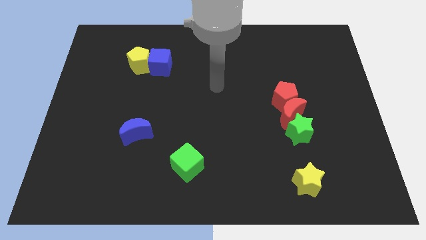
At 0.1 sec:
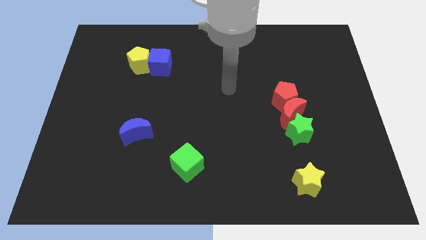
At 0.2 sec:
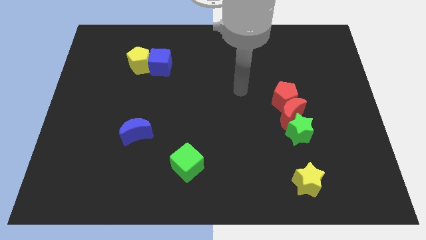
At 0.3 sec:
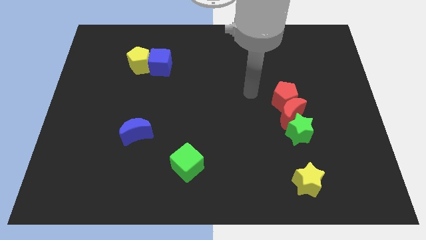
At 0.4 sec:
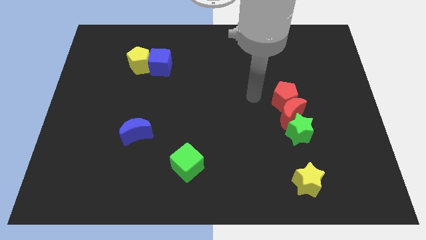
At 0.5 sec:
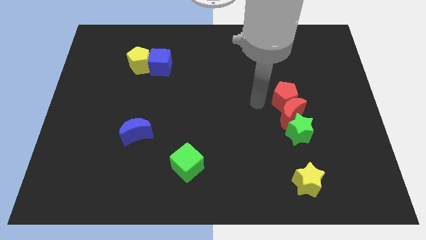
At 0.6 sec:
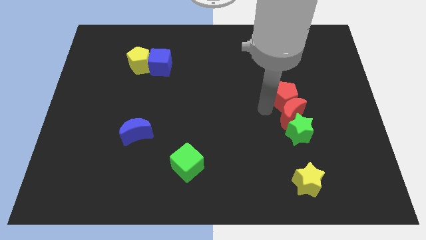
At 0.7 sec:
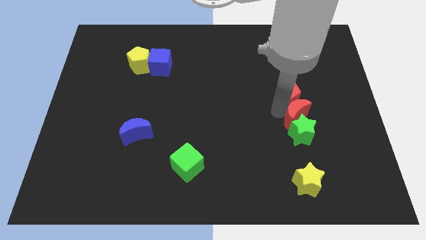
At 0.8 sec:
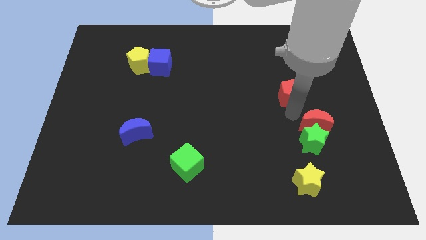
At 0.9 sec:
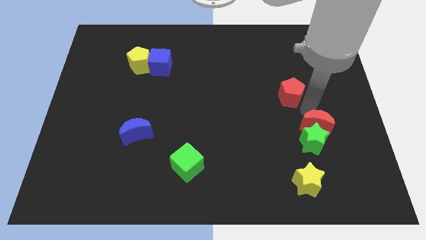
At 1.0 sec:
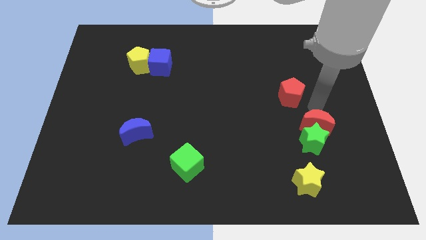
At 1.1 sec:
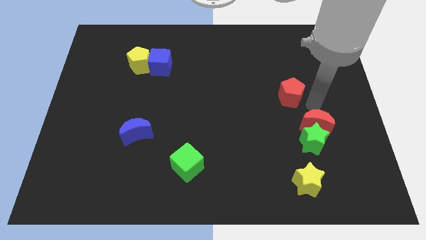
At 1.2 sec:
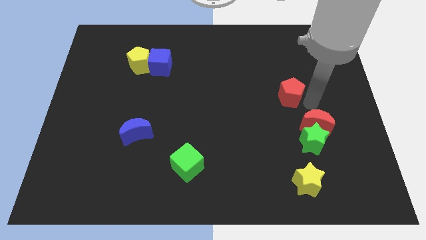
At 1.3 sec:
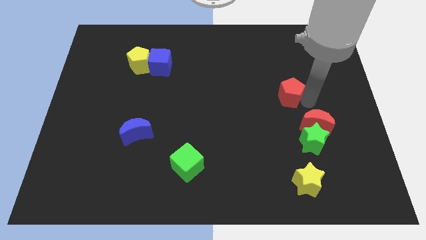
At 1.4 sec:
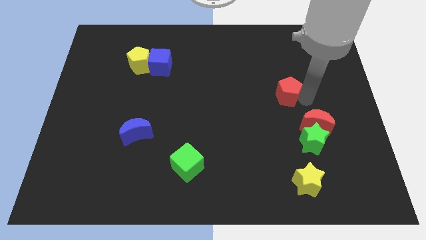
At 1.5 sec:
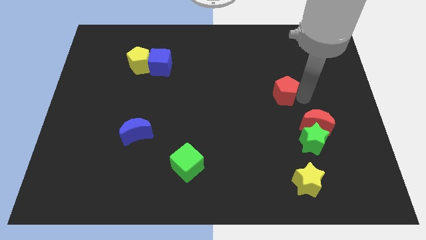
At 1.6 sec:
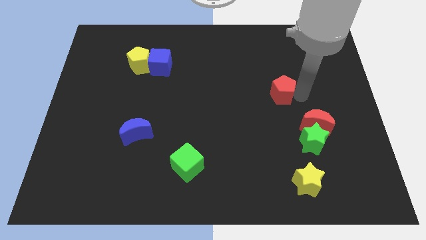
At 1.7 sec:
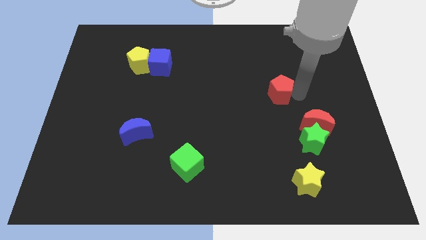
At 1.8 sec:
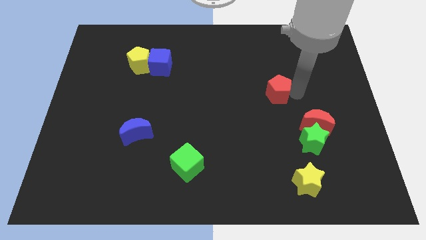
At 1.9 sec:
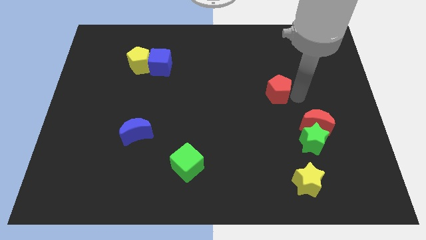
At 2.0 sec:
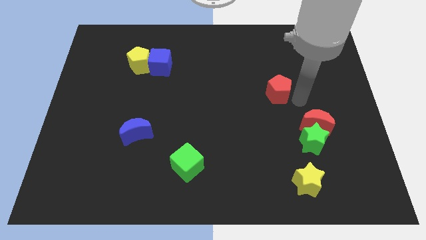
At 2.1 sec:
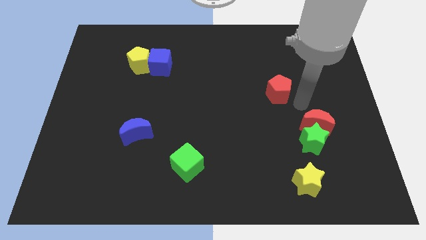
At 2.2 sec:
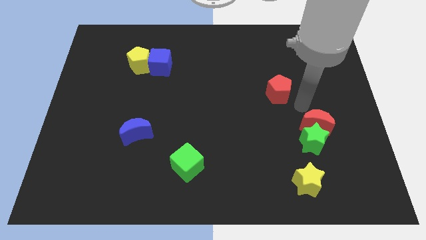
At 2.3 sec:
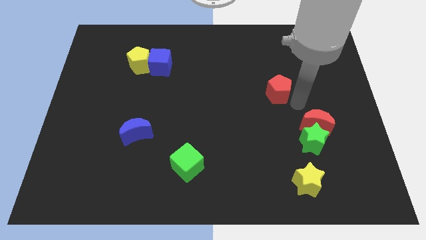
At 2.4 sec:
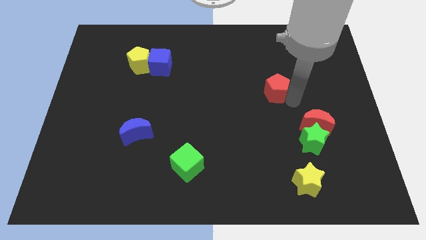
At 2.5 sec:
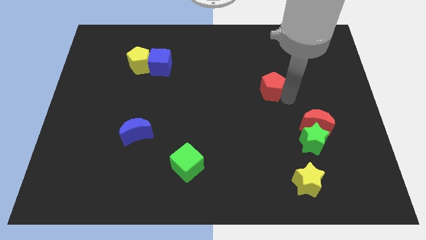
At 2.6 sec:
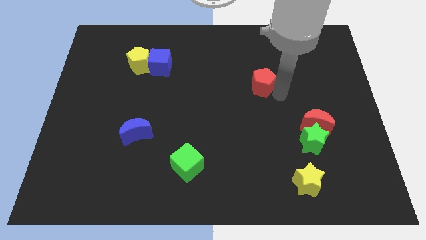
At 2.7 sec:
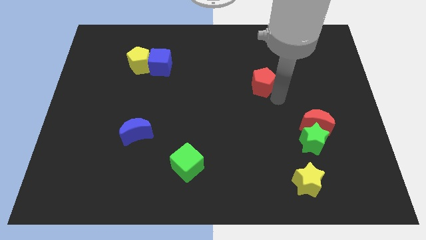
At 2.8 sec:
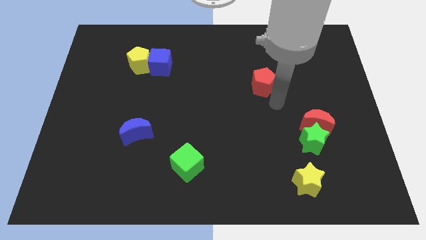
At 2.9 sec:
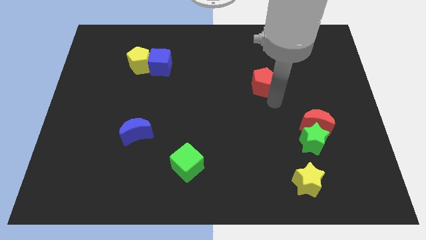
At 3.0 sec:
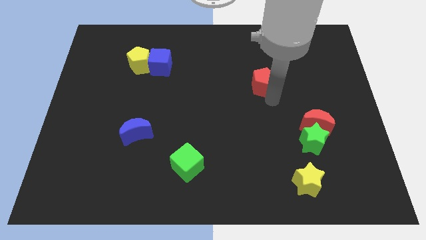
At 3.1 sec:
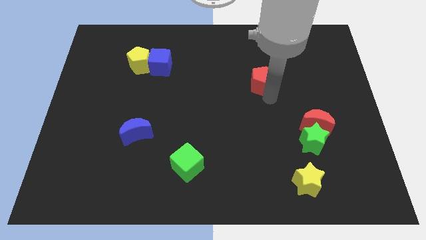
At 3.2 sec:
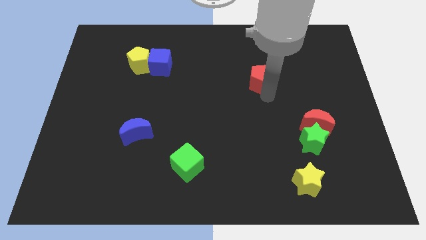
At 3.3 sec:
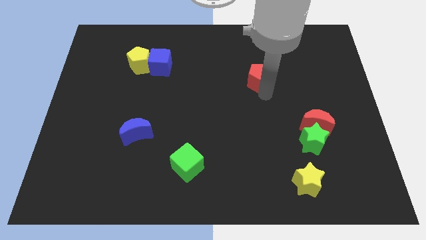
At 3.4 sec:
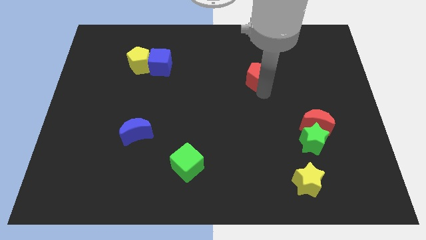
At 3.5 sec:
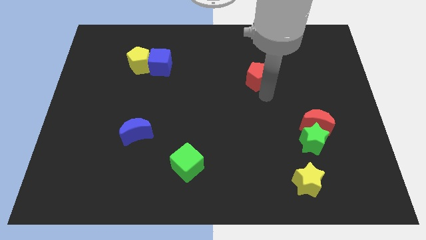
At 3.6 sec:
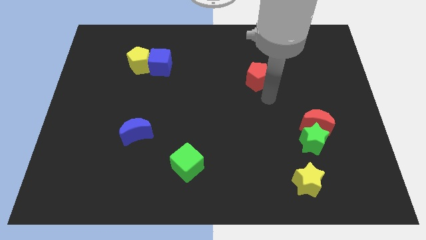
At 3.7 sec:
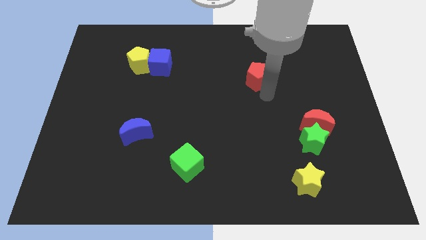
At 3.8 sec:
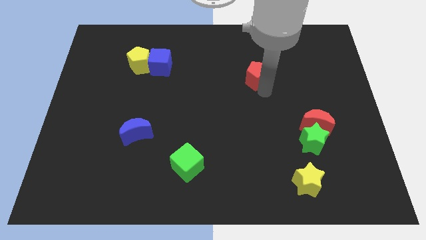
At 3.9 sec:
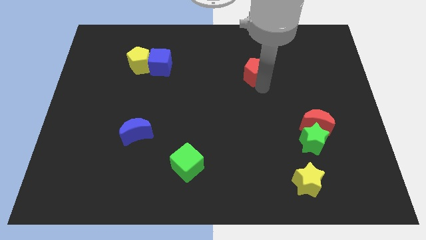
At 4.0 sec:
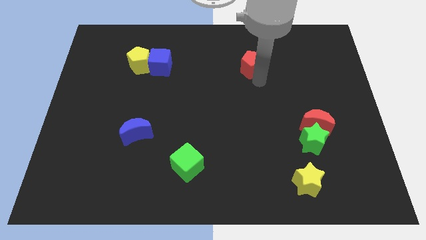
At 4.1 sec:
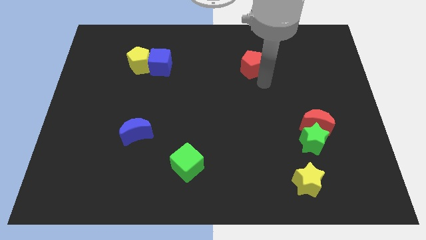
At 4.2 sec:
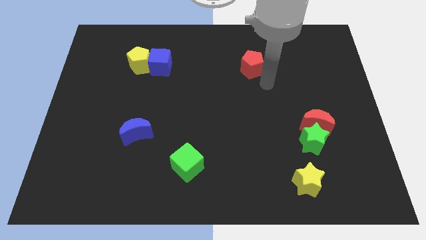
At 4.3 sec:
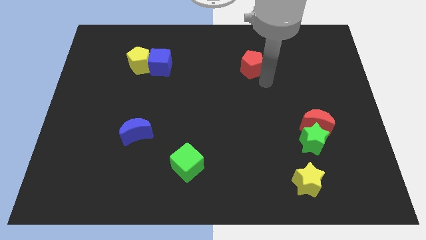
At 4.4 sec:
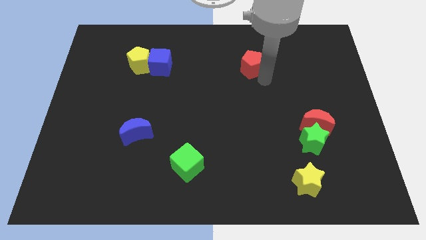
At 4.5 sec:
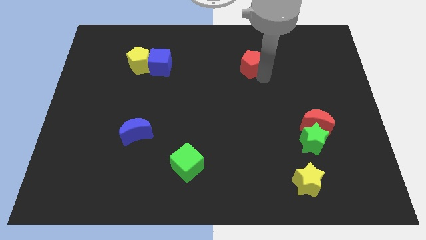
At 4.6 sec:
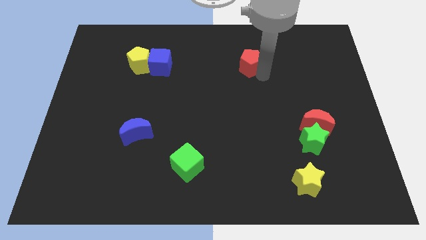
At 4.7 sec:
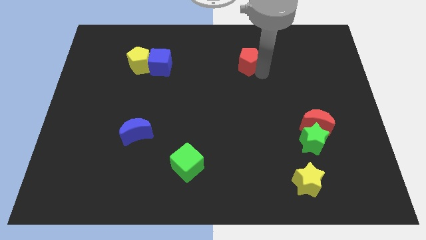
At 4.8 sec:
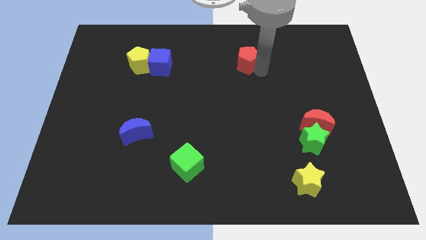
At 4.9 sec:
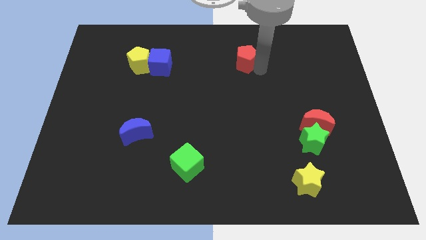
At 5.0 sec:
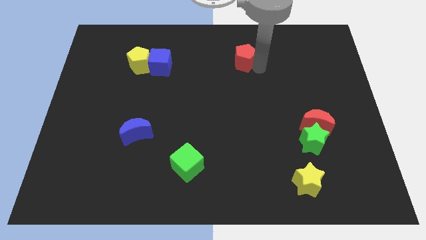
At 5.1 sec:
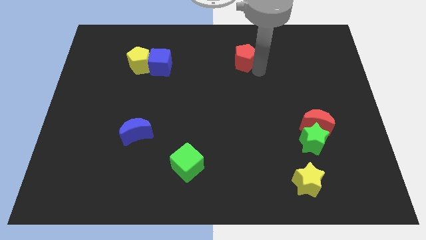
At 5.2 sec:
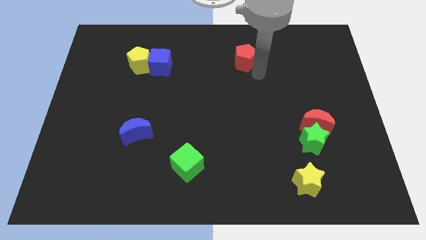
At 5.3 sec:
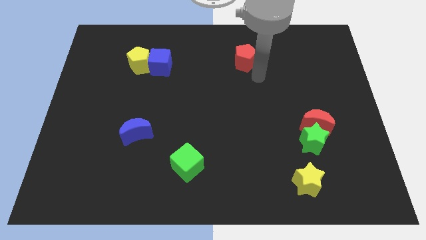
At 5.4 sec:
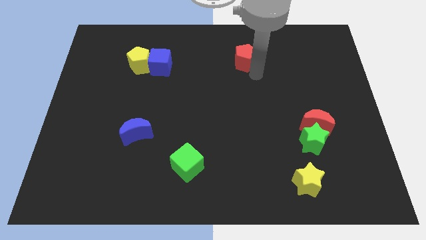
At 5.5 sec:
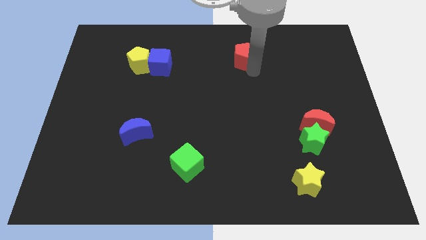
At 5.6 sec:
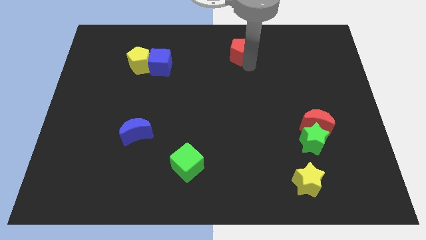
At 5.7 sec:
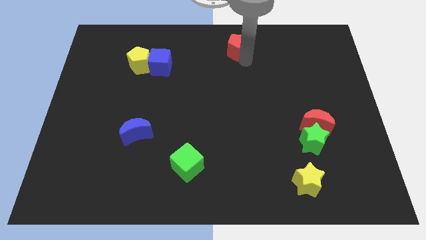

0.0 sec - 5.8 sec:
put the red pentagon to the towards your base
